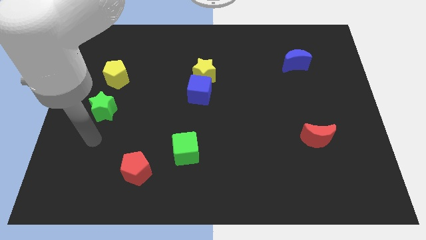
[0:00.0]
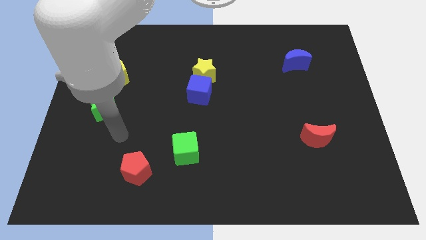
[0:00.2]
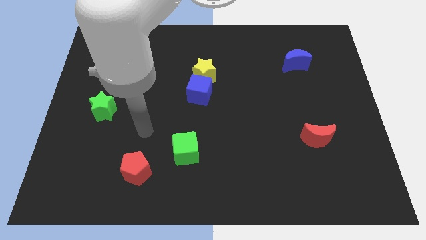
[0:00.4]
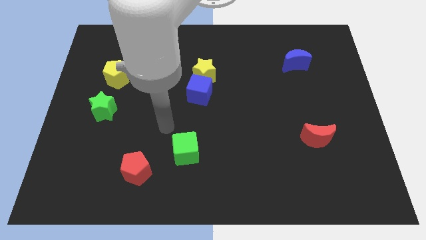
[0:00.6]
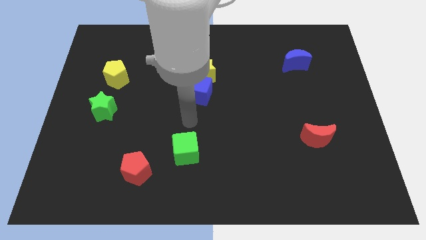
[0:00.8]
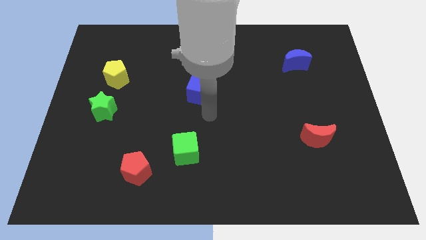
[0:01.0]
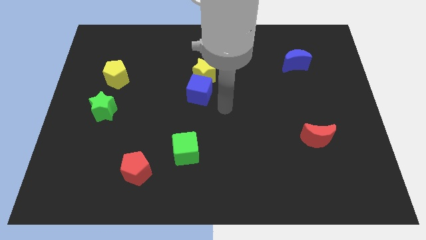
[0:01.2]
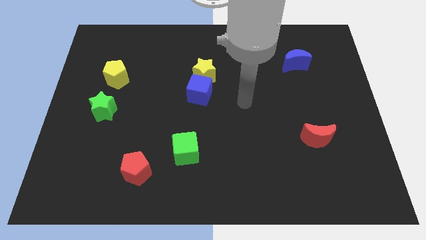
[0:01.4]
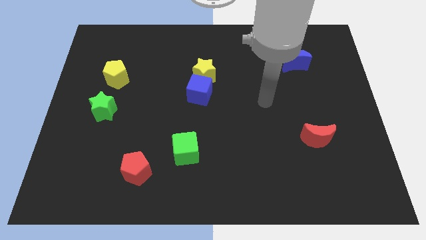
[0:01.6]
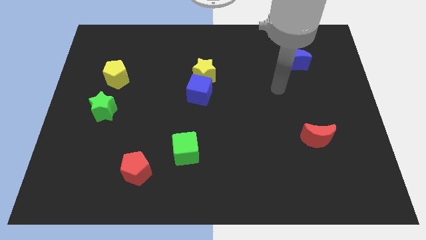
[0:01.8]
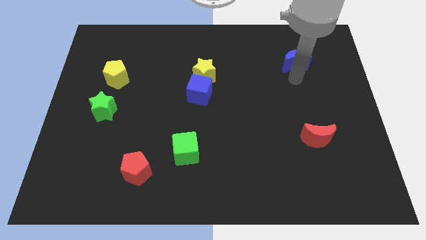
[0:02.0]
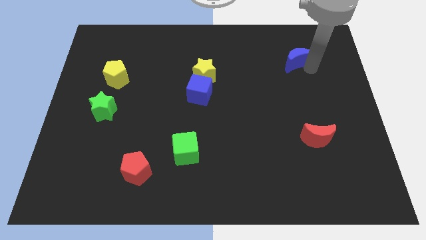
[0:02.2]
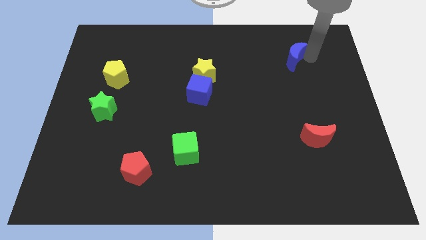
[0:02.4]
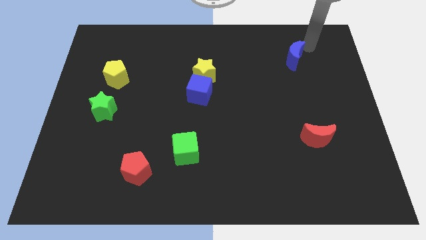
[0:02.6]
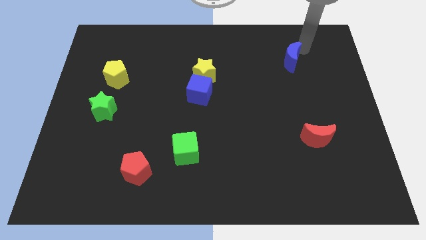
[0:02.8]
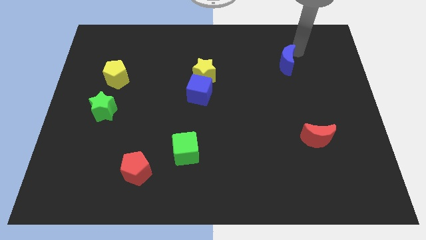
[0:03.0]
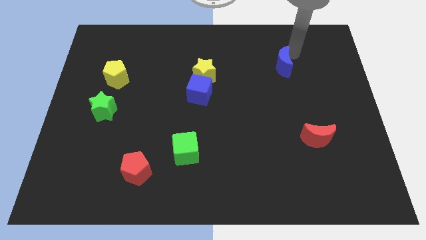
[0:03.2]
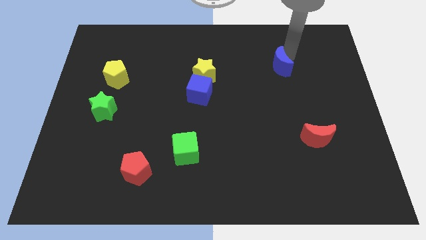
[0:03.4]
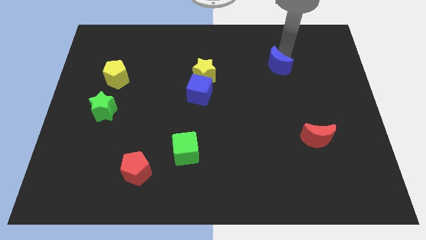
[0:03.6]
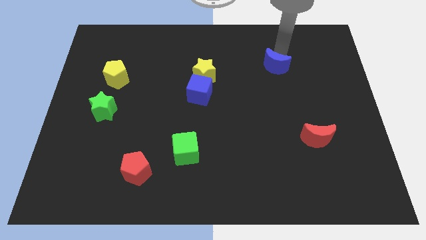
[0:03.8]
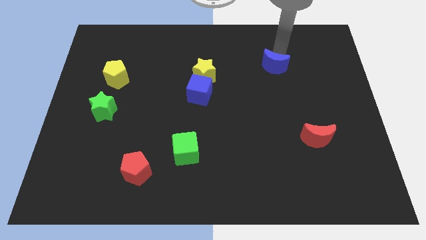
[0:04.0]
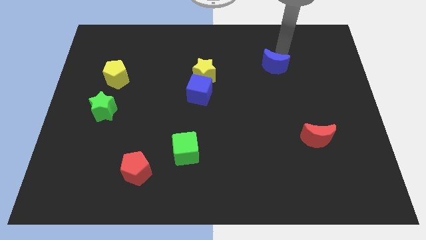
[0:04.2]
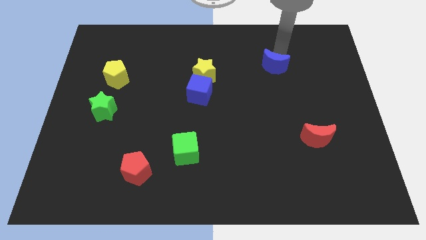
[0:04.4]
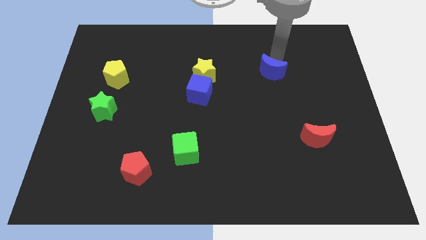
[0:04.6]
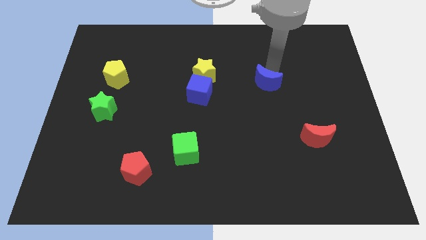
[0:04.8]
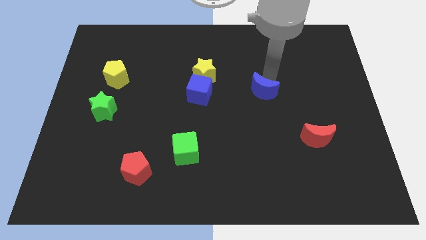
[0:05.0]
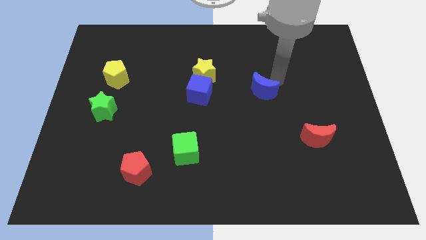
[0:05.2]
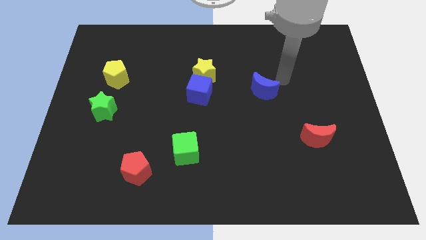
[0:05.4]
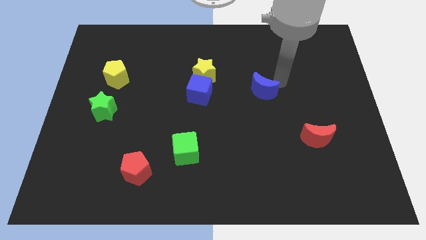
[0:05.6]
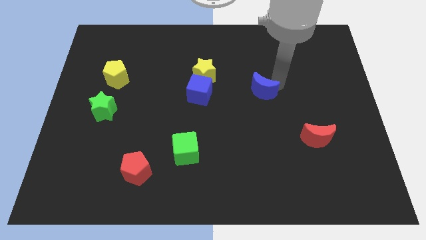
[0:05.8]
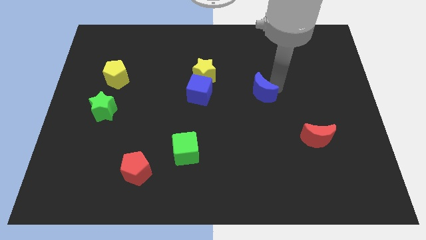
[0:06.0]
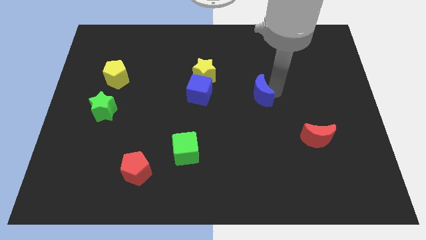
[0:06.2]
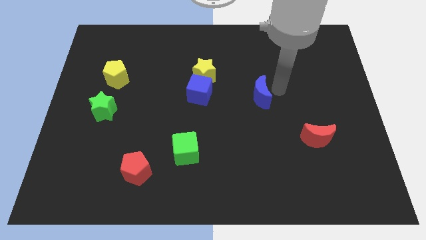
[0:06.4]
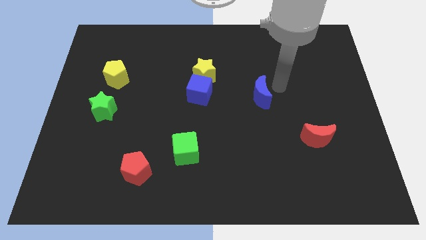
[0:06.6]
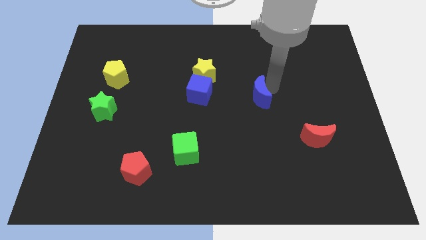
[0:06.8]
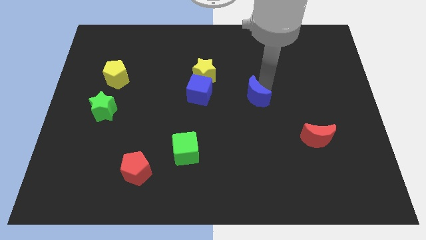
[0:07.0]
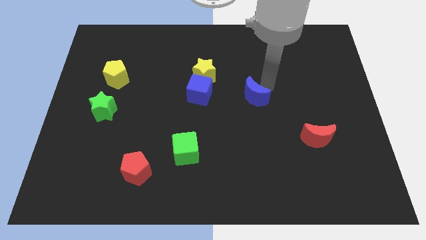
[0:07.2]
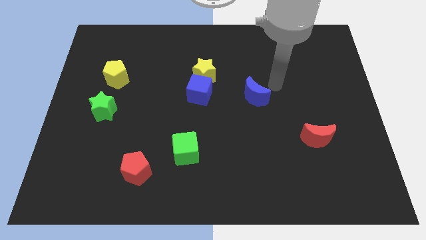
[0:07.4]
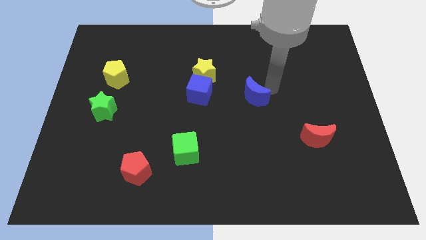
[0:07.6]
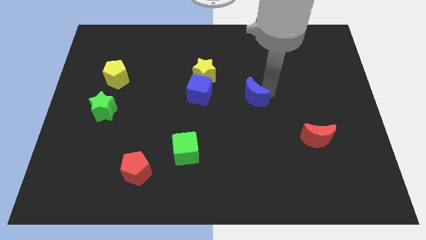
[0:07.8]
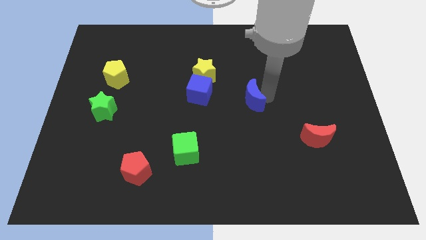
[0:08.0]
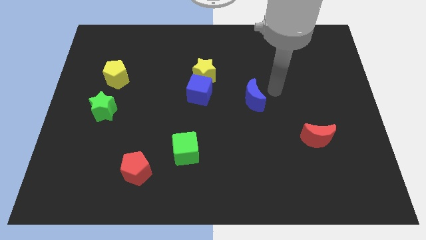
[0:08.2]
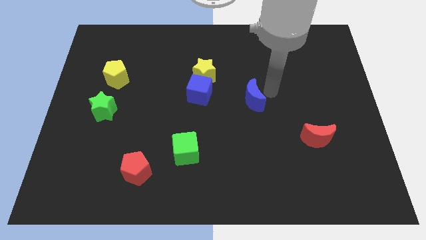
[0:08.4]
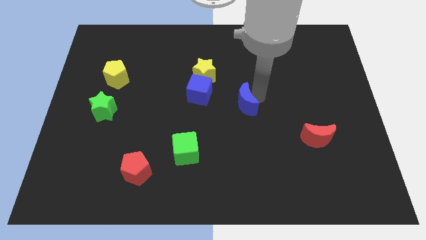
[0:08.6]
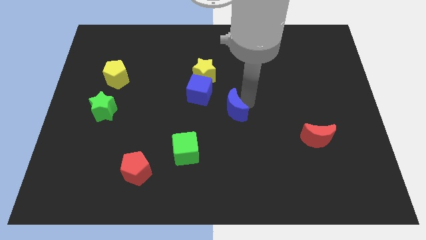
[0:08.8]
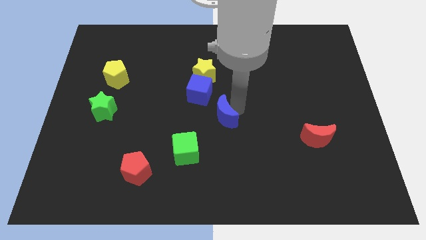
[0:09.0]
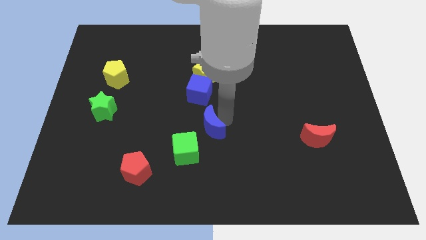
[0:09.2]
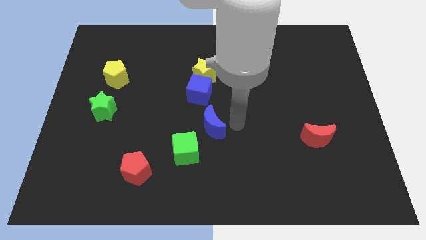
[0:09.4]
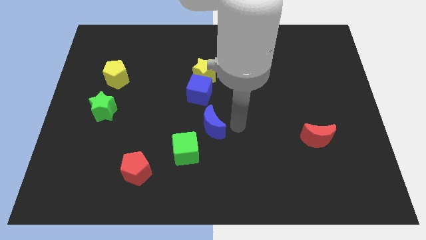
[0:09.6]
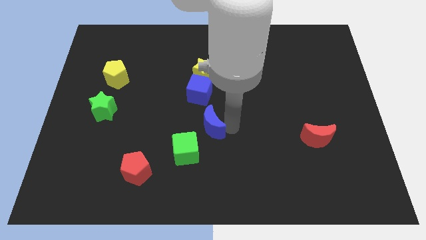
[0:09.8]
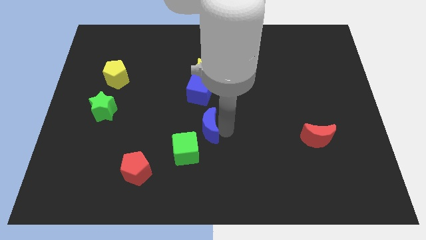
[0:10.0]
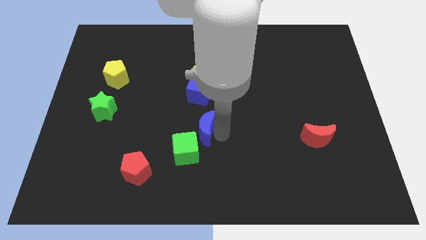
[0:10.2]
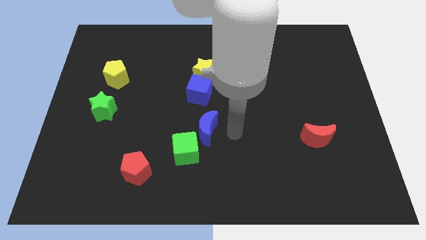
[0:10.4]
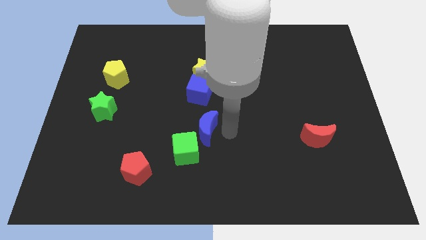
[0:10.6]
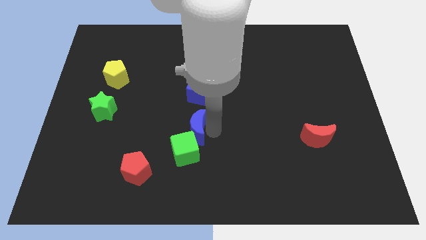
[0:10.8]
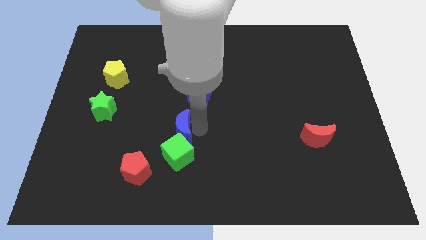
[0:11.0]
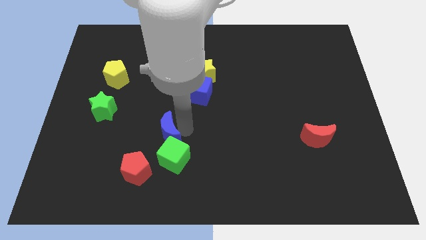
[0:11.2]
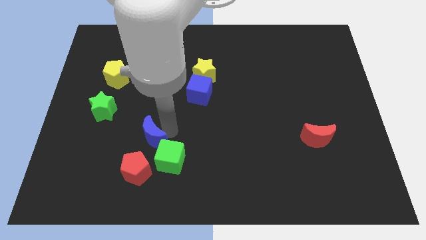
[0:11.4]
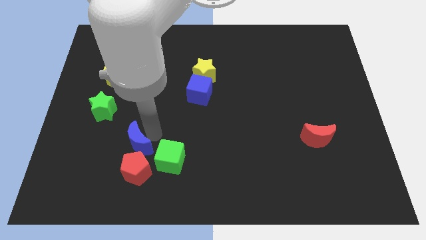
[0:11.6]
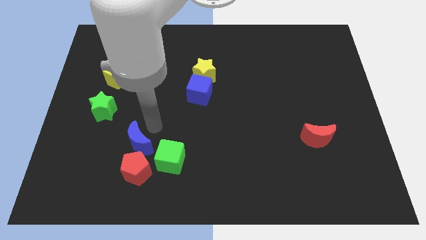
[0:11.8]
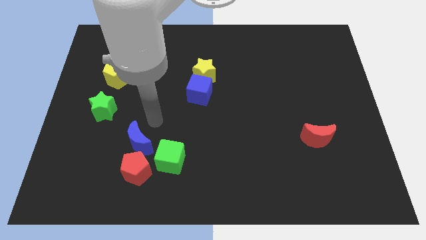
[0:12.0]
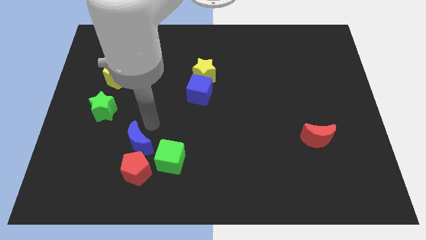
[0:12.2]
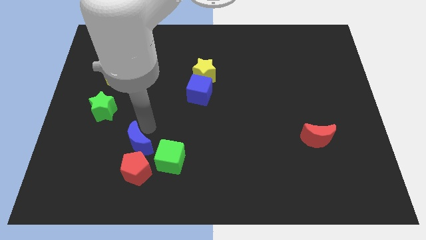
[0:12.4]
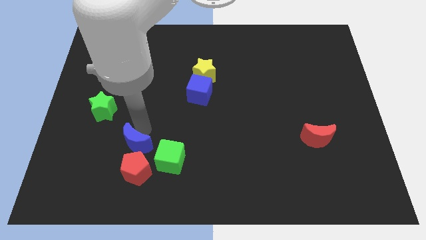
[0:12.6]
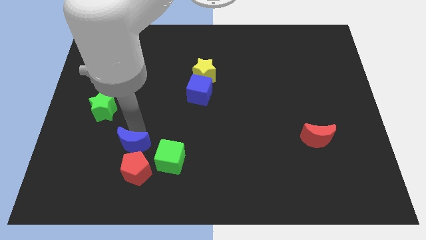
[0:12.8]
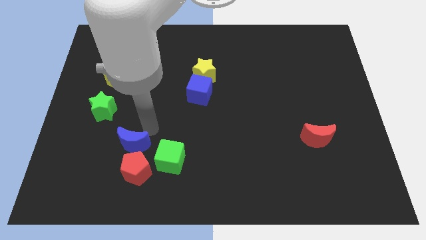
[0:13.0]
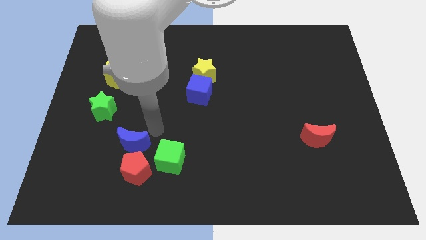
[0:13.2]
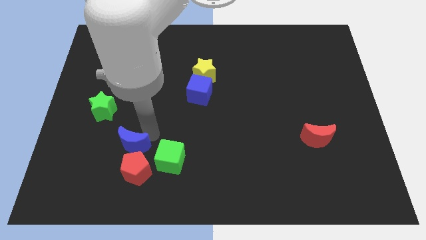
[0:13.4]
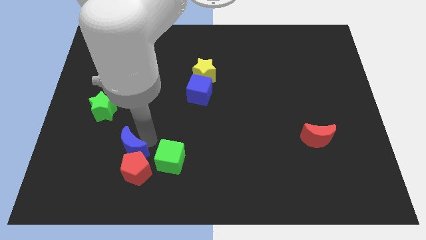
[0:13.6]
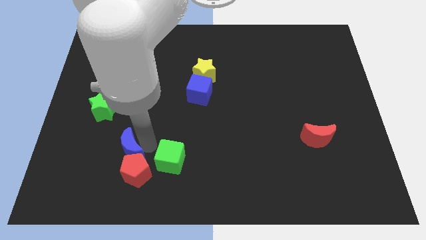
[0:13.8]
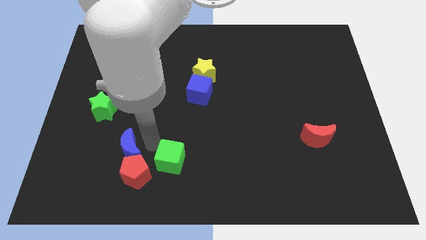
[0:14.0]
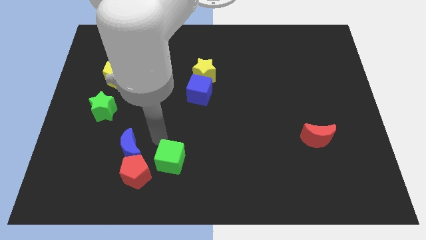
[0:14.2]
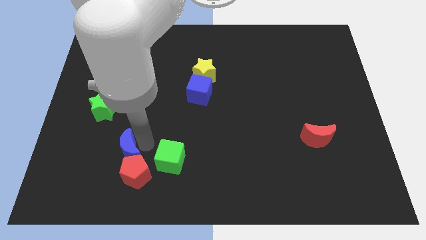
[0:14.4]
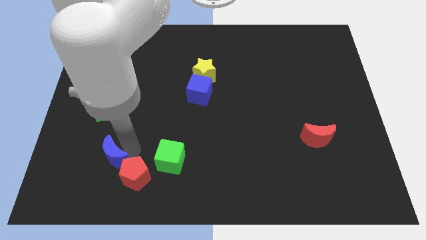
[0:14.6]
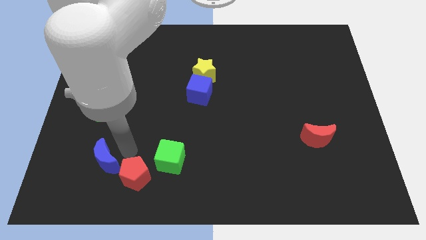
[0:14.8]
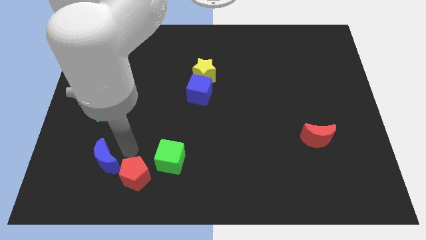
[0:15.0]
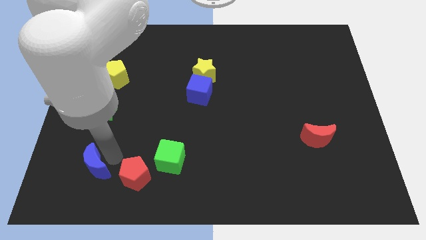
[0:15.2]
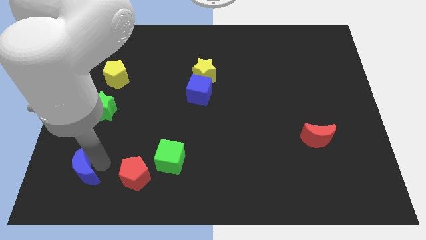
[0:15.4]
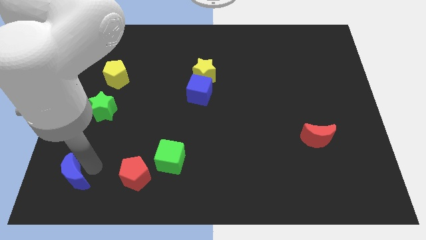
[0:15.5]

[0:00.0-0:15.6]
move the blue moon to the lower left corner
